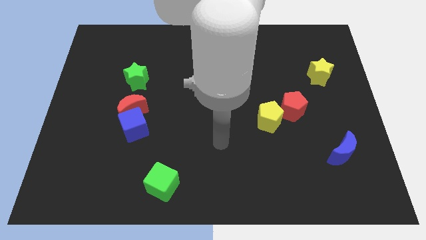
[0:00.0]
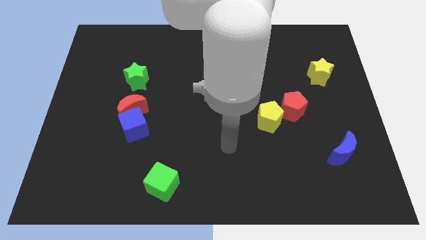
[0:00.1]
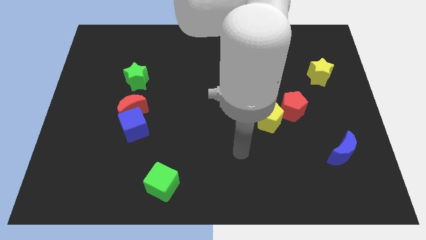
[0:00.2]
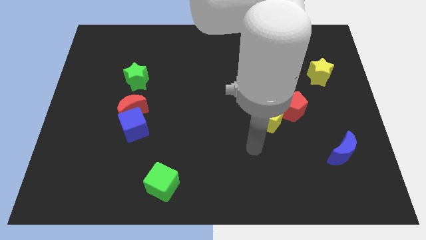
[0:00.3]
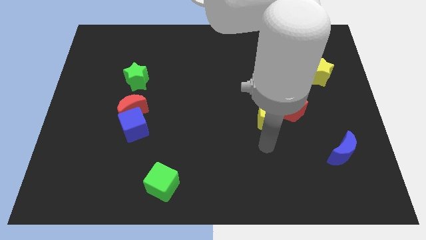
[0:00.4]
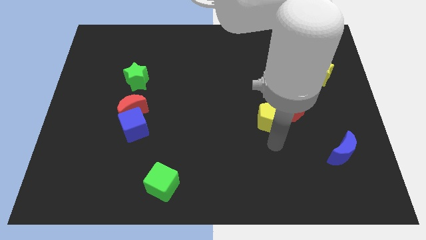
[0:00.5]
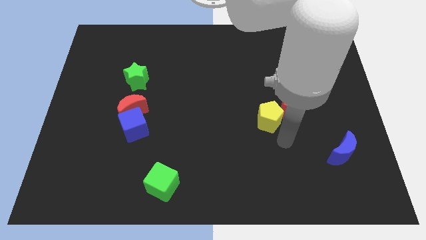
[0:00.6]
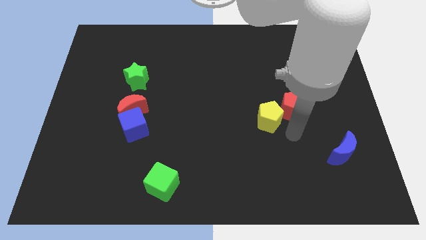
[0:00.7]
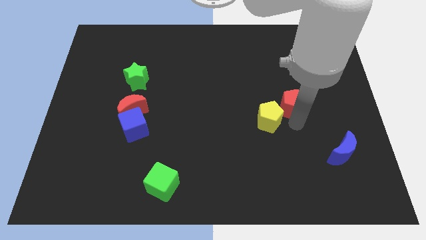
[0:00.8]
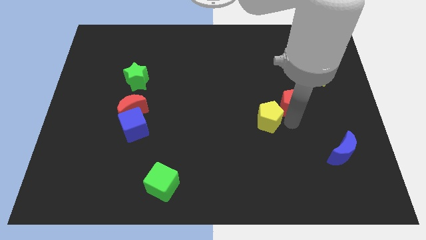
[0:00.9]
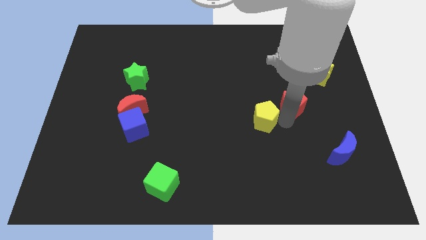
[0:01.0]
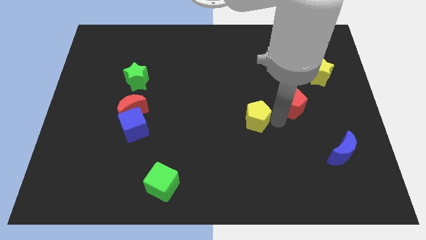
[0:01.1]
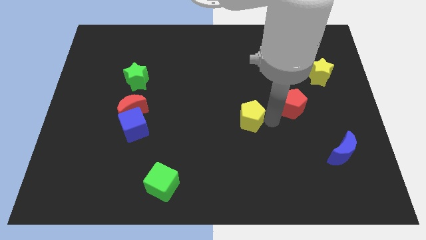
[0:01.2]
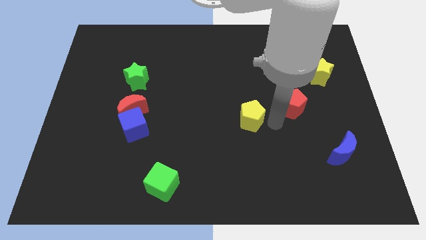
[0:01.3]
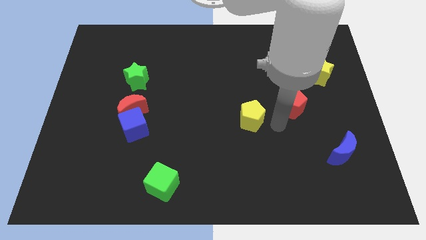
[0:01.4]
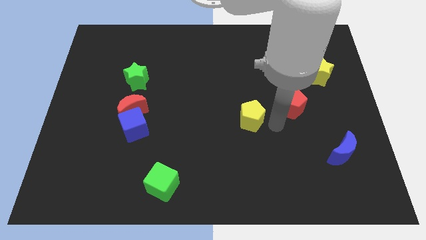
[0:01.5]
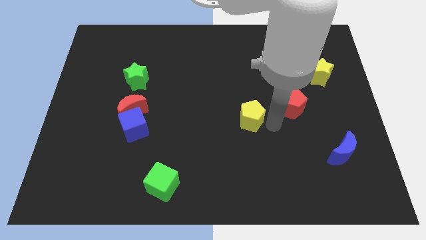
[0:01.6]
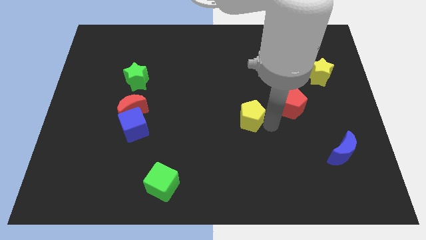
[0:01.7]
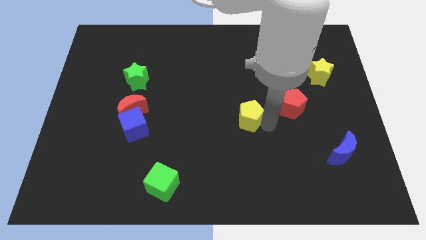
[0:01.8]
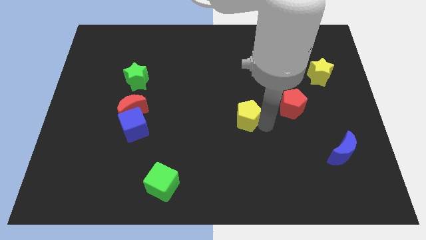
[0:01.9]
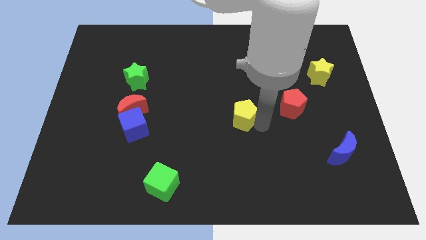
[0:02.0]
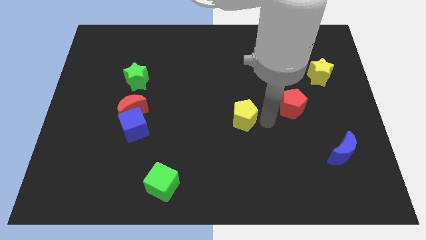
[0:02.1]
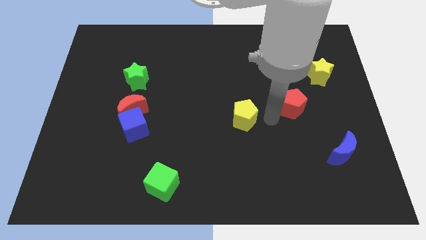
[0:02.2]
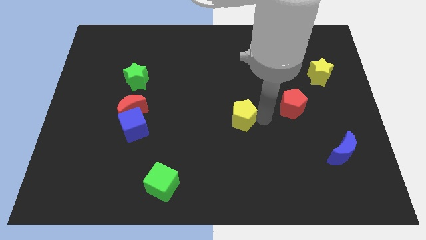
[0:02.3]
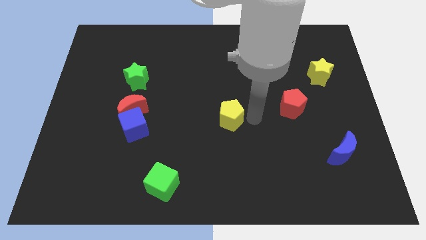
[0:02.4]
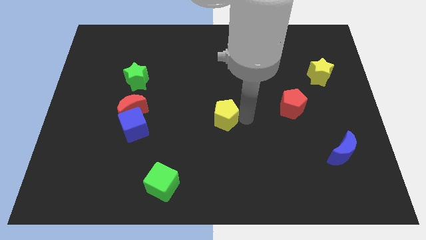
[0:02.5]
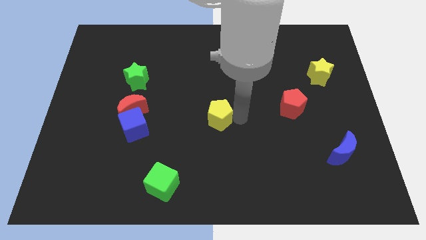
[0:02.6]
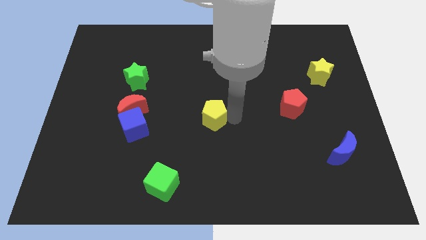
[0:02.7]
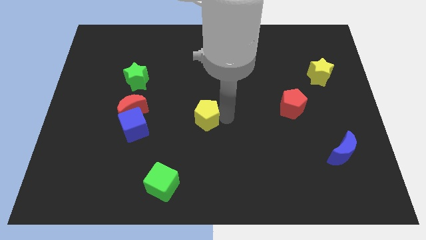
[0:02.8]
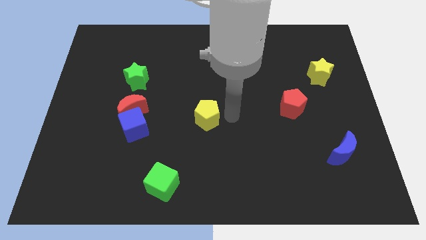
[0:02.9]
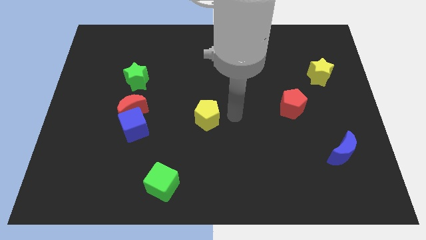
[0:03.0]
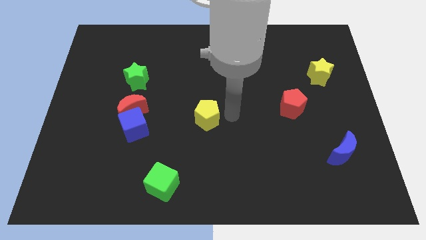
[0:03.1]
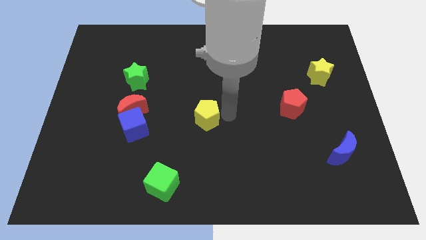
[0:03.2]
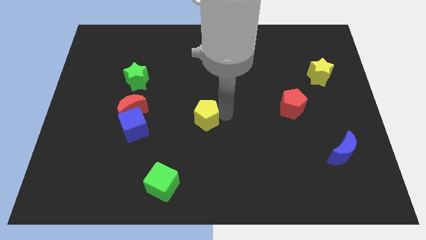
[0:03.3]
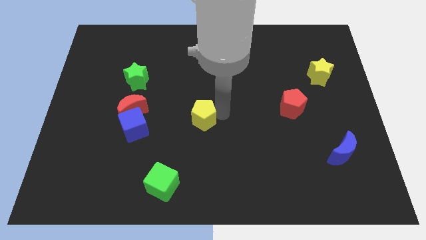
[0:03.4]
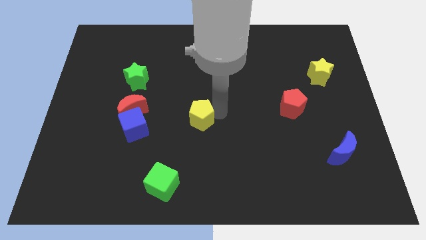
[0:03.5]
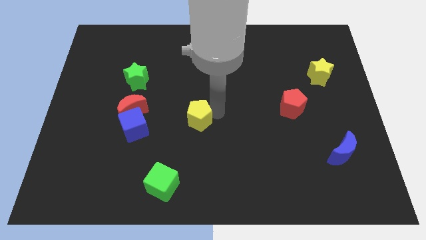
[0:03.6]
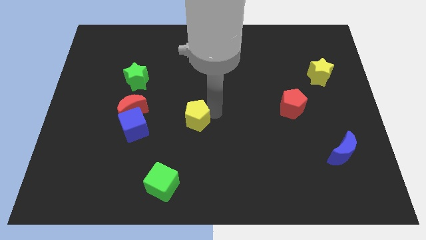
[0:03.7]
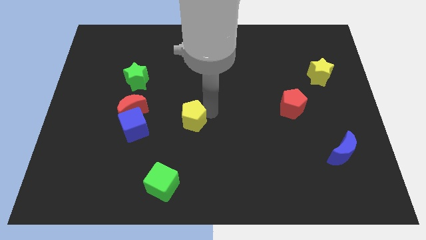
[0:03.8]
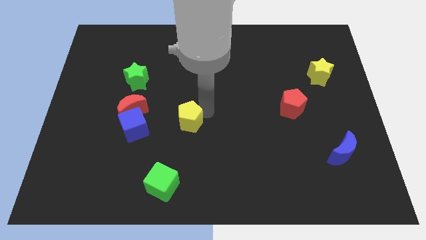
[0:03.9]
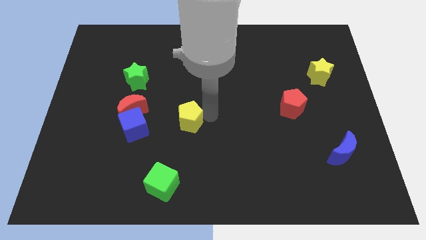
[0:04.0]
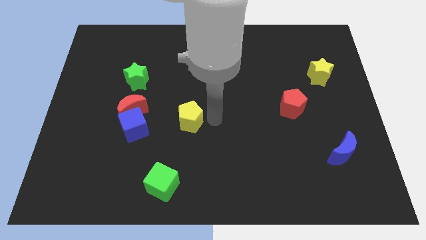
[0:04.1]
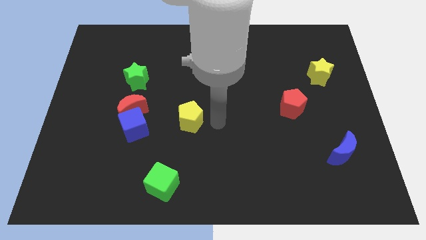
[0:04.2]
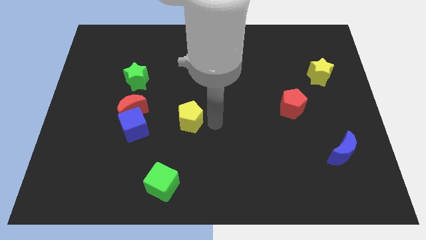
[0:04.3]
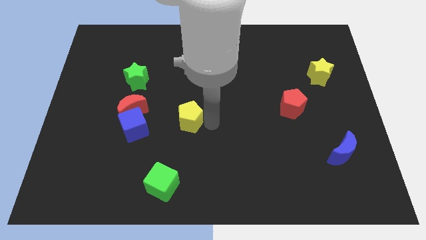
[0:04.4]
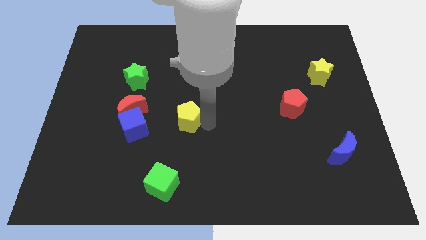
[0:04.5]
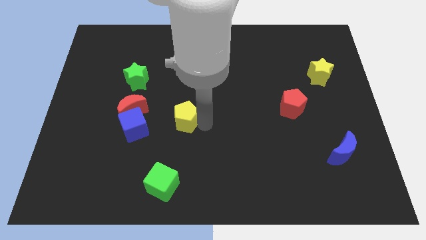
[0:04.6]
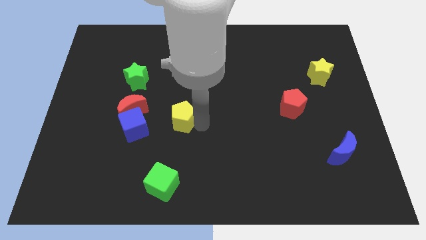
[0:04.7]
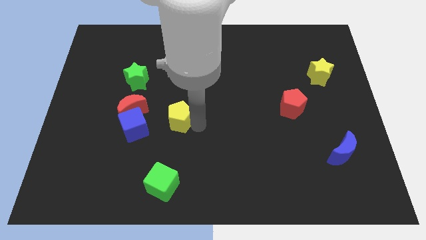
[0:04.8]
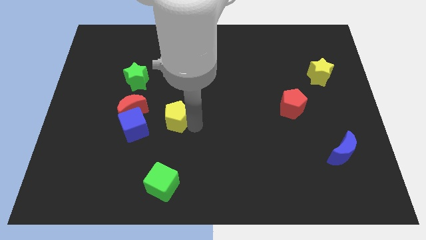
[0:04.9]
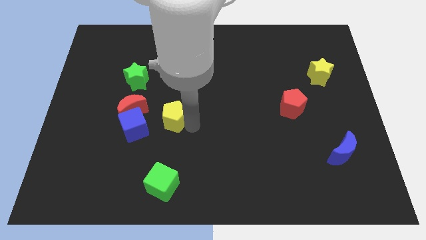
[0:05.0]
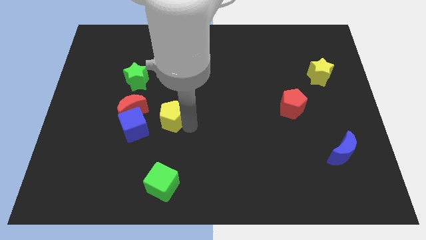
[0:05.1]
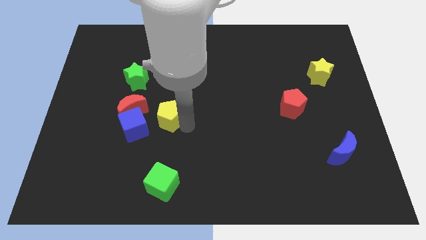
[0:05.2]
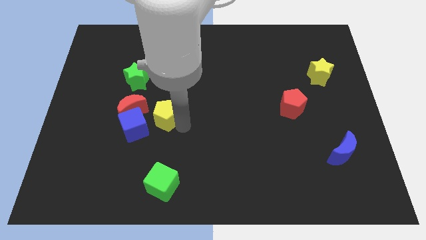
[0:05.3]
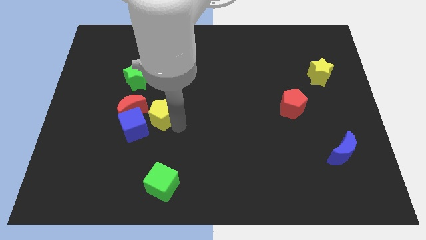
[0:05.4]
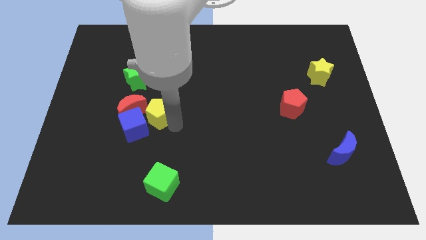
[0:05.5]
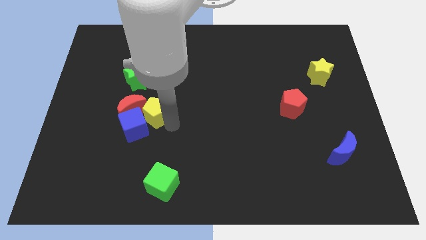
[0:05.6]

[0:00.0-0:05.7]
put the yellow pentagon to the red moon
